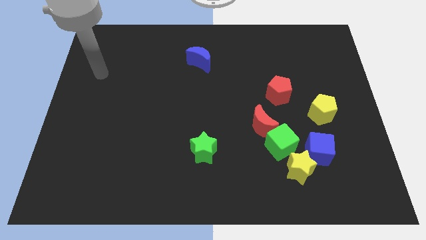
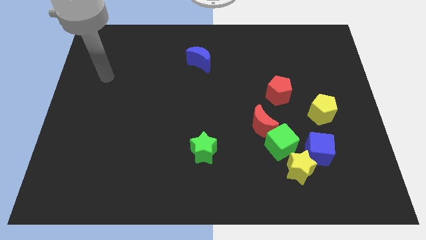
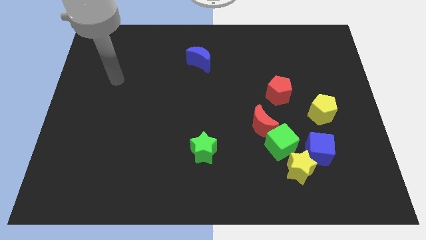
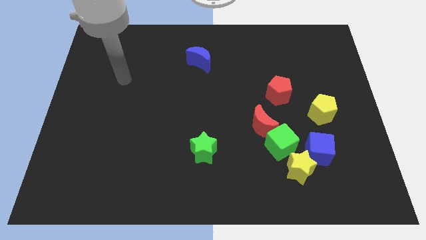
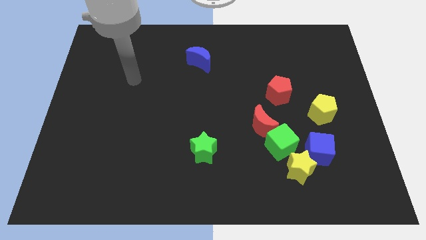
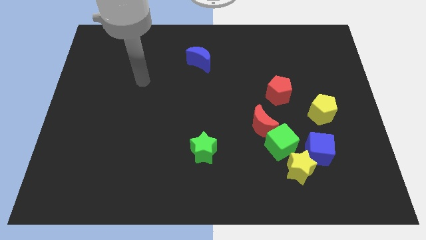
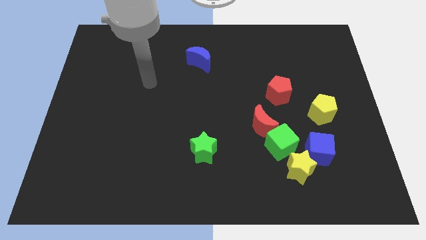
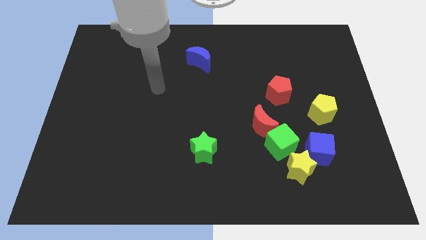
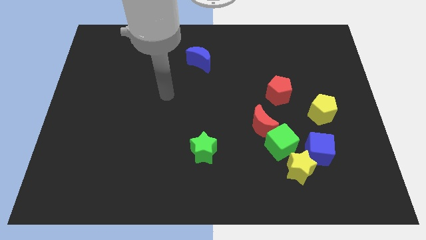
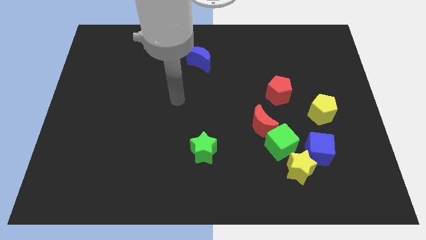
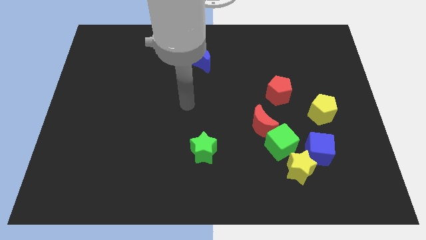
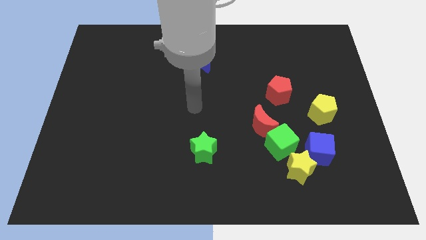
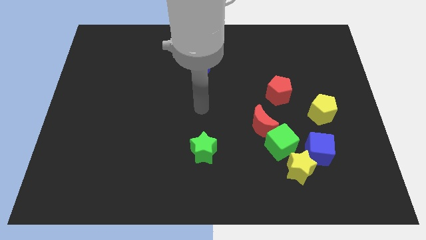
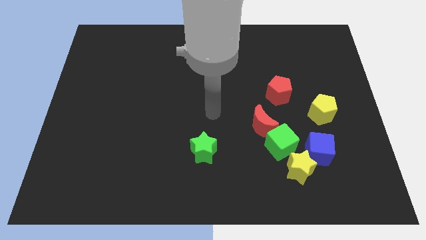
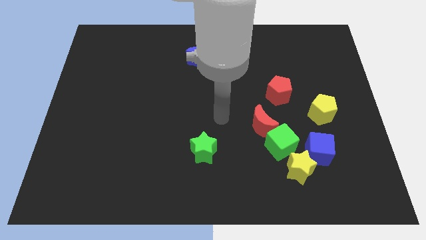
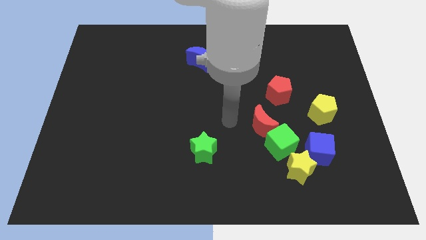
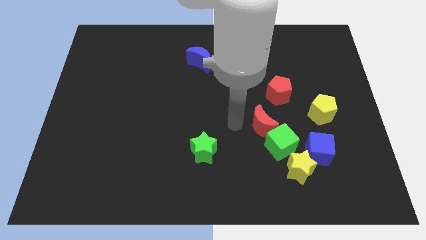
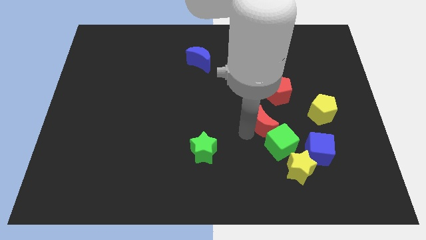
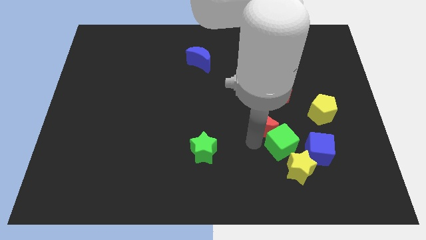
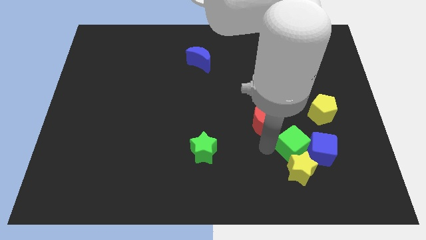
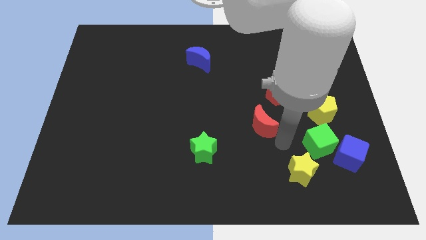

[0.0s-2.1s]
move the red moon away from the green cube

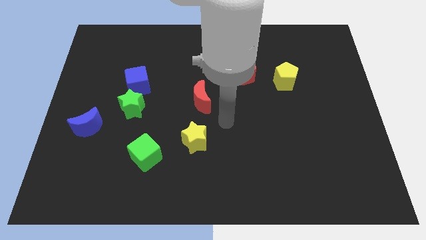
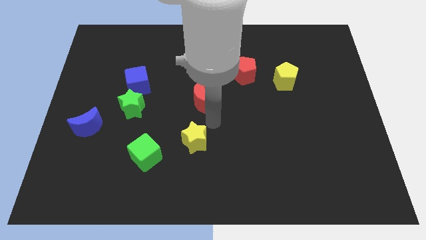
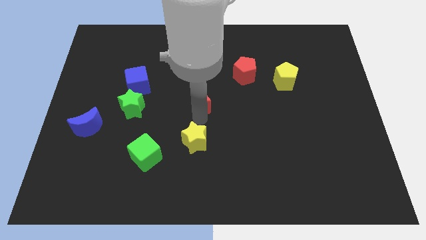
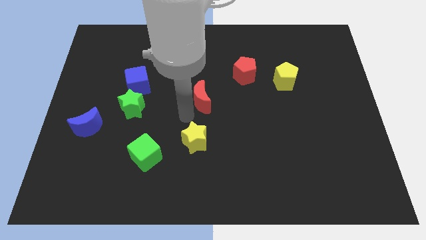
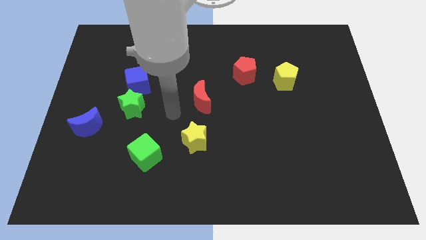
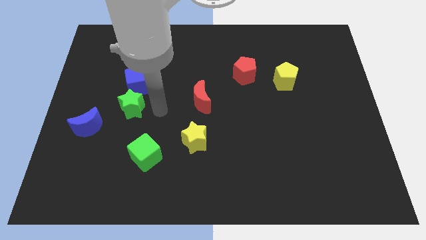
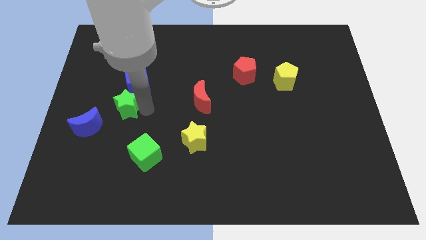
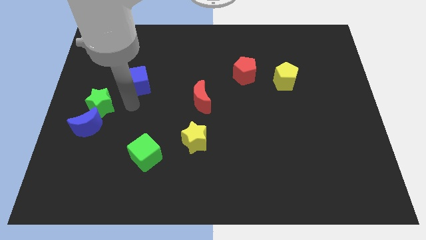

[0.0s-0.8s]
move the blue cube away from the green star

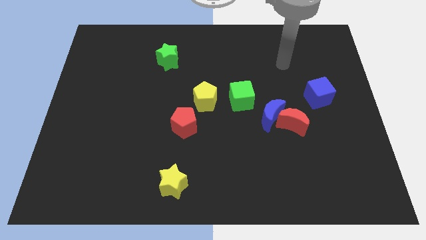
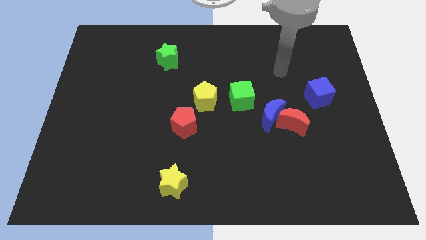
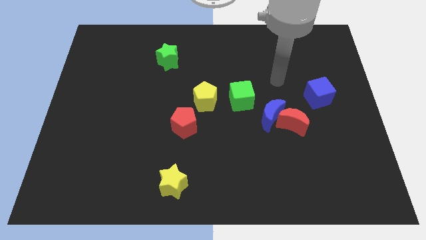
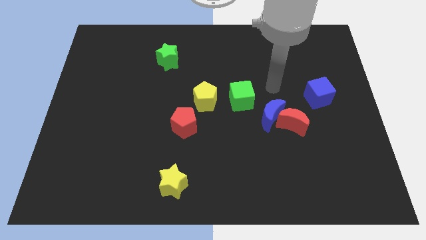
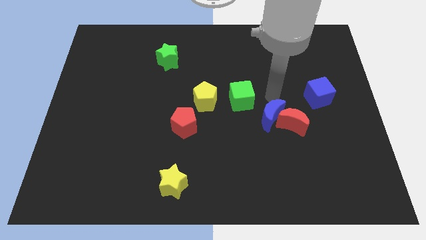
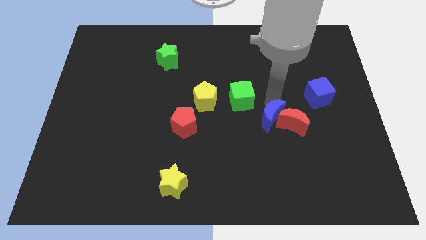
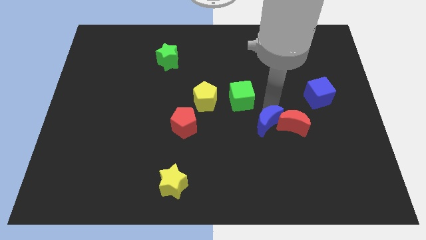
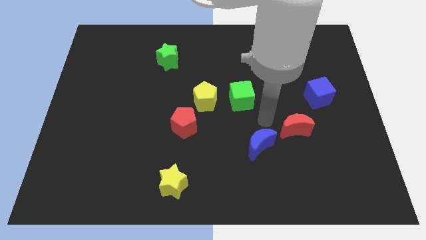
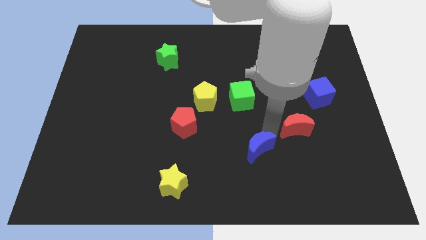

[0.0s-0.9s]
pull the red moon apart from the blue moon

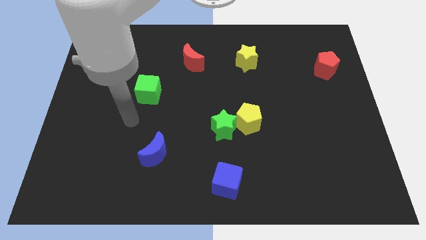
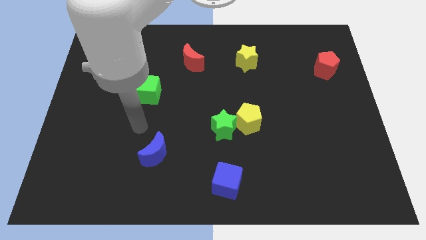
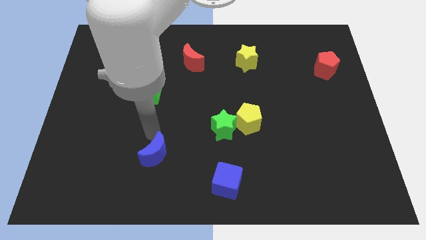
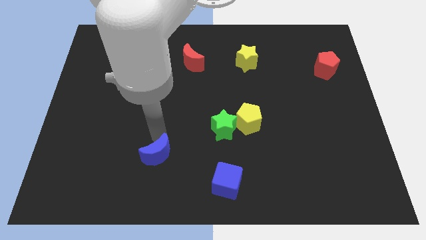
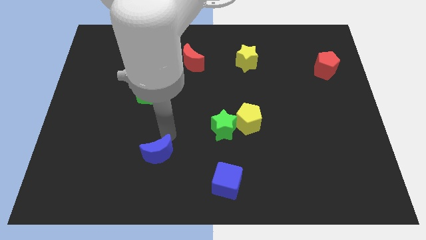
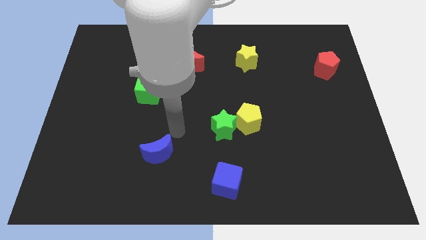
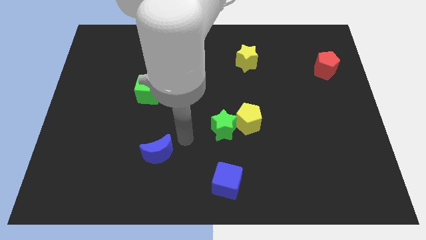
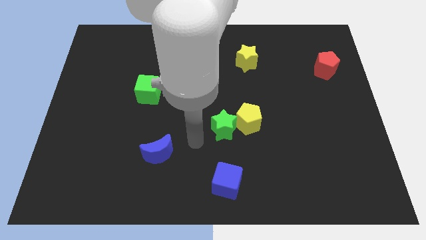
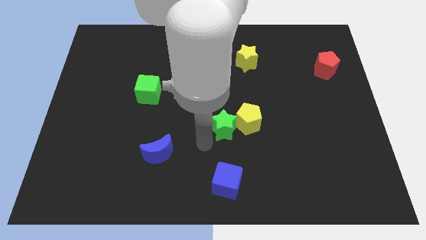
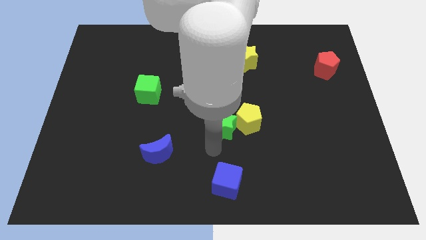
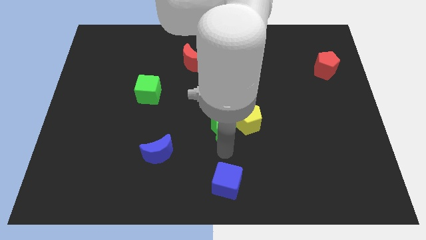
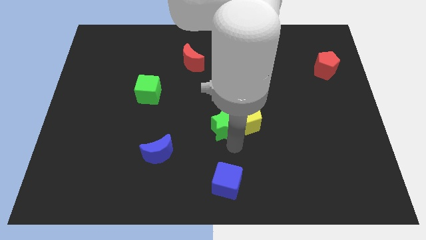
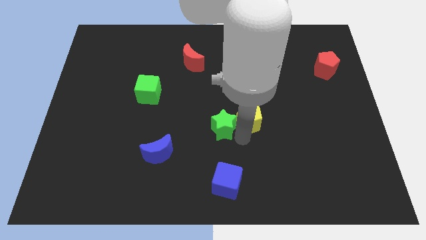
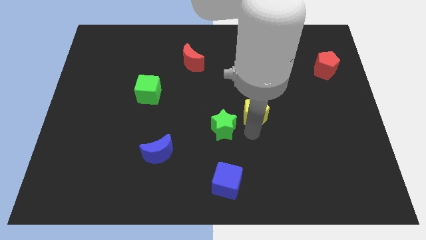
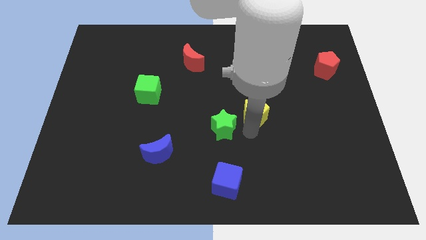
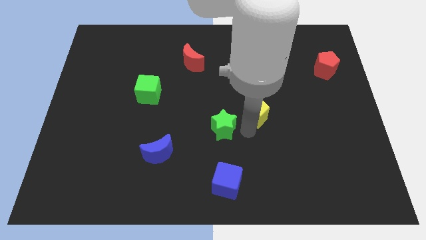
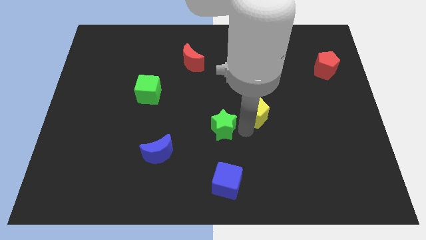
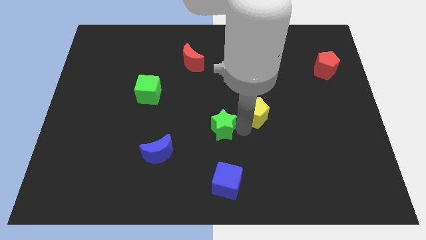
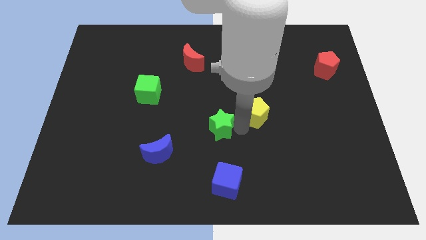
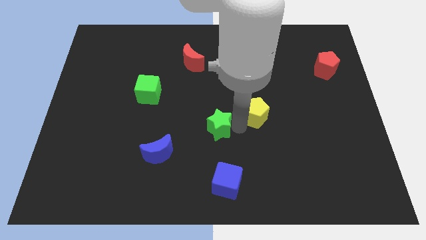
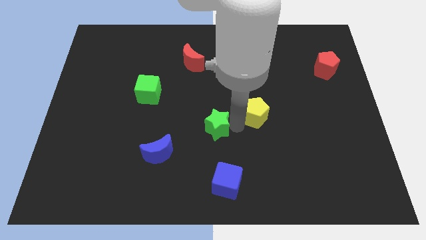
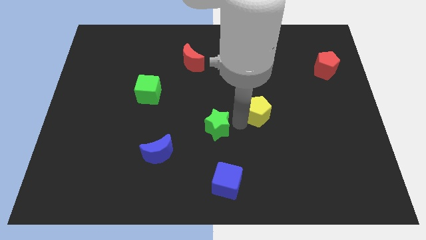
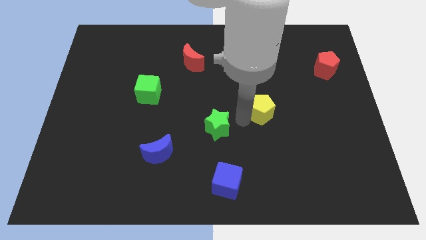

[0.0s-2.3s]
separate the green star from the yellow pentagon

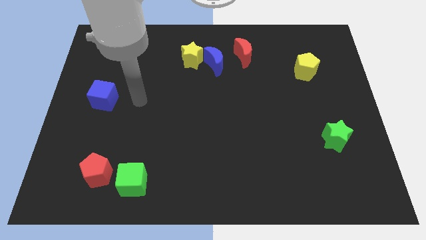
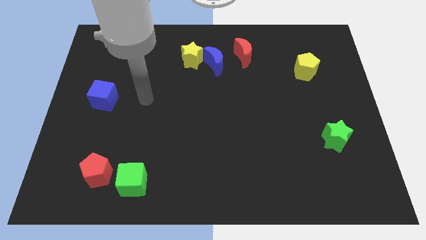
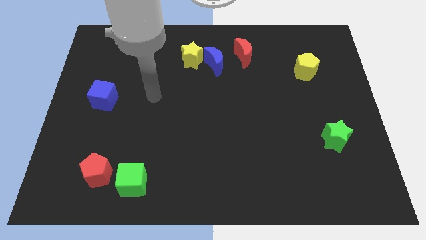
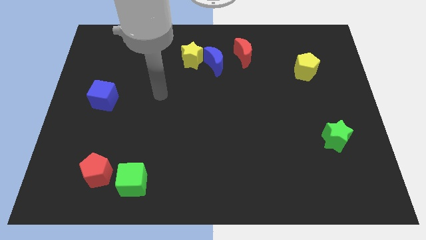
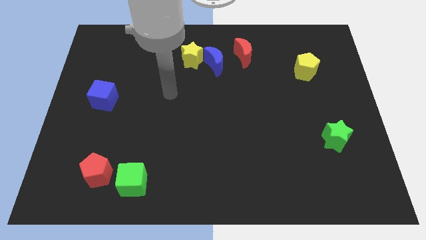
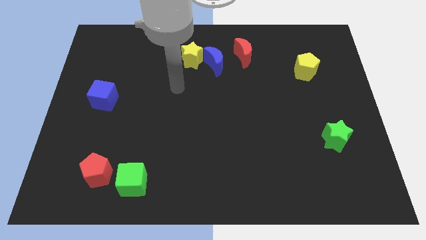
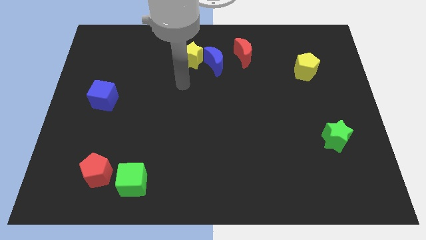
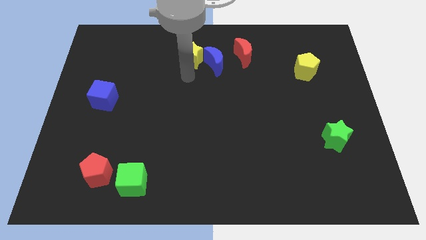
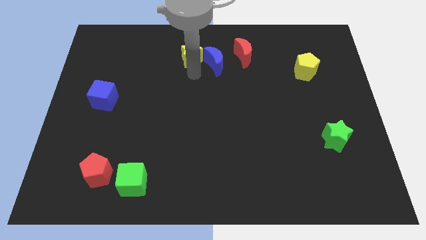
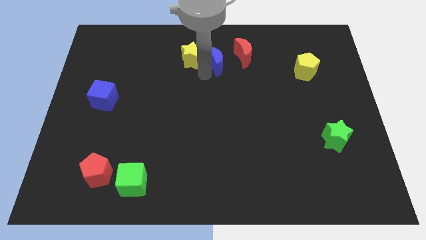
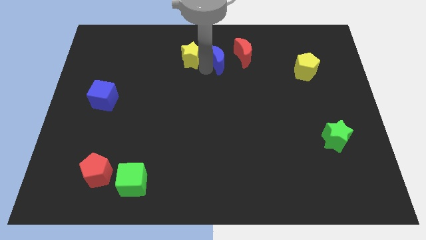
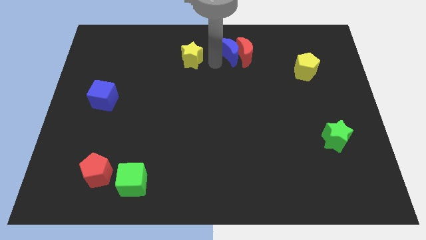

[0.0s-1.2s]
pull the yellow star apart from the blue moon

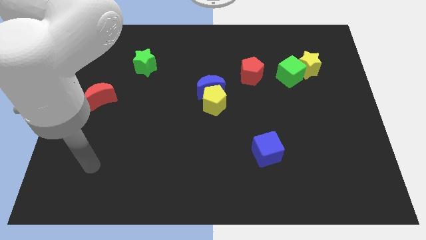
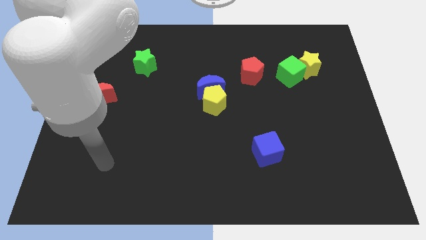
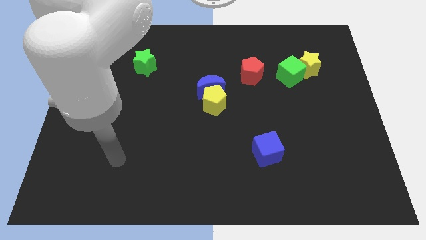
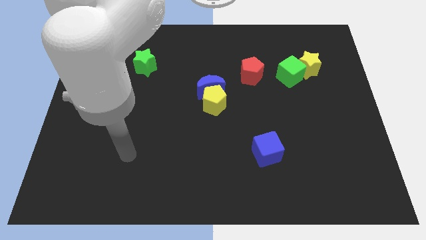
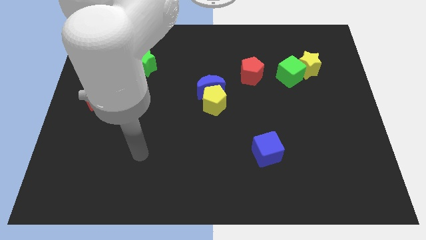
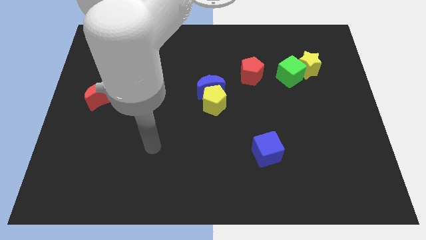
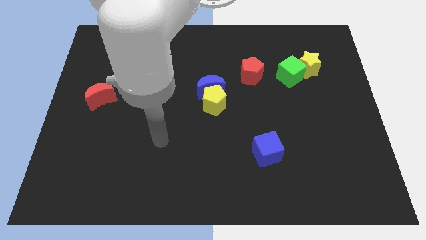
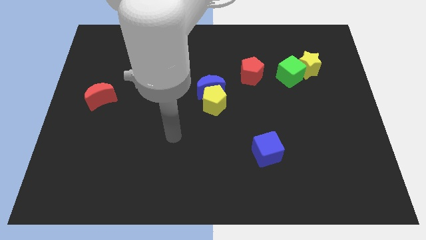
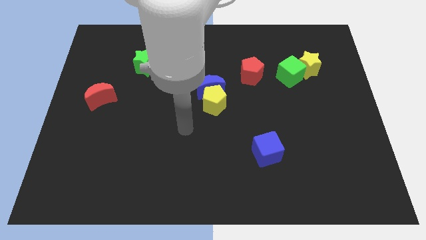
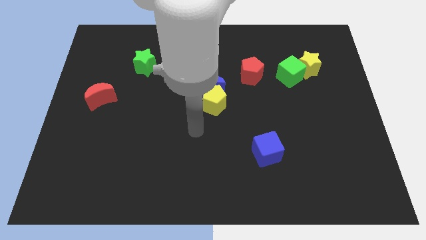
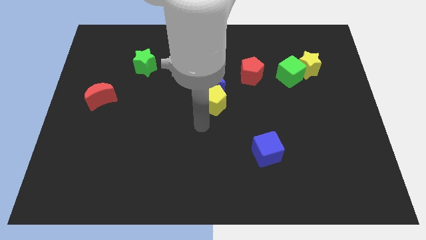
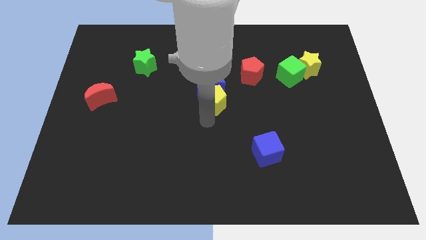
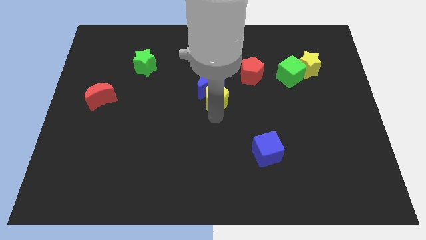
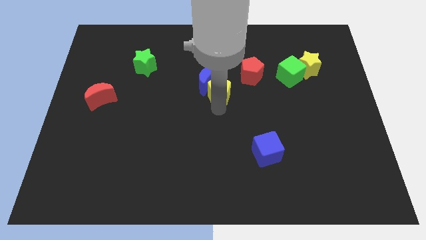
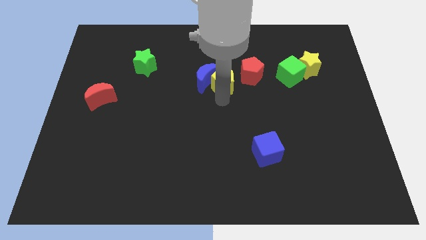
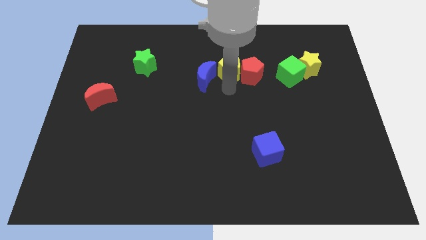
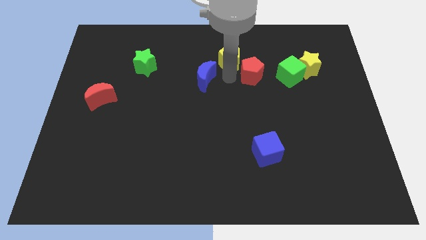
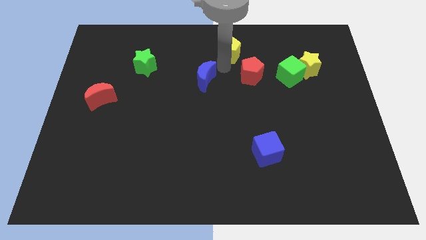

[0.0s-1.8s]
pull the blue moon apart from the yellow pentagon
